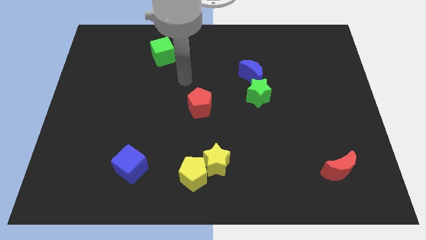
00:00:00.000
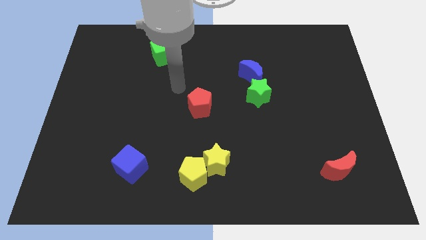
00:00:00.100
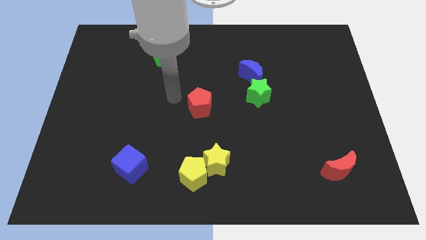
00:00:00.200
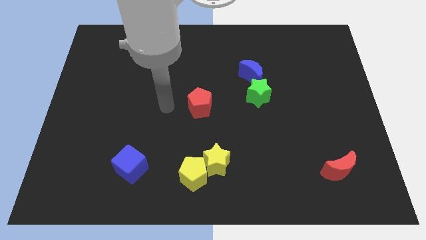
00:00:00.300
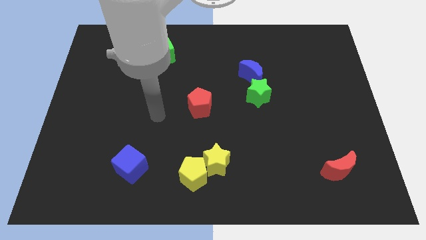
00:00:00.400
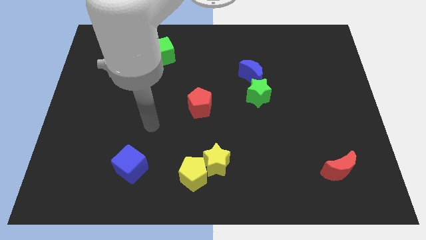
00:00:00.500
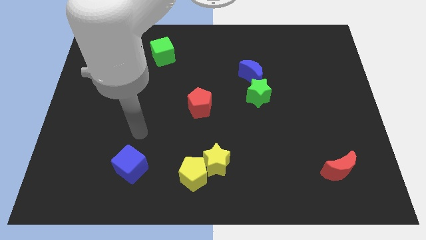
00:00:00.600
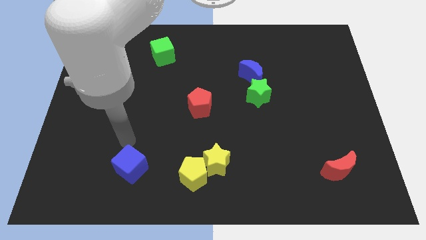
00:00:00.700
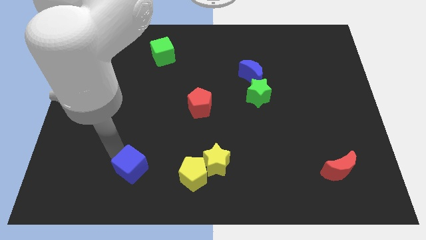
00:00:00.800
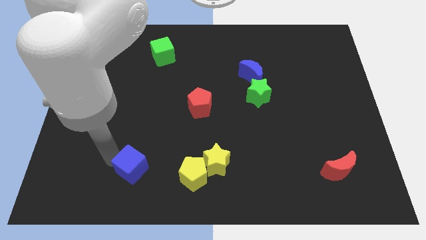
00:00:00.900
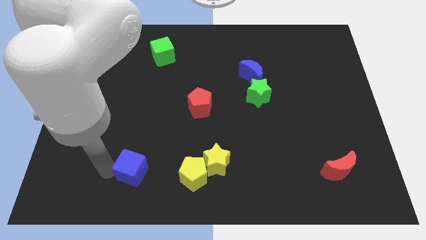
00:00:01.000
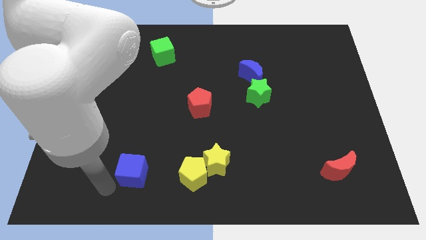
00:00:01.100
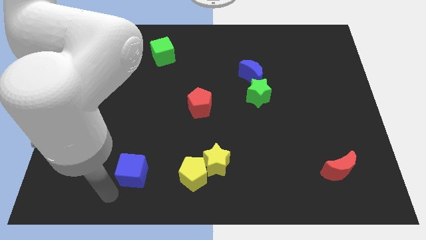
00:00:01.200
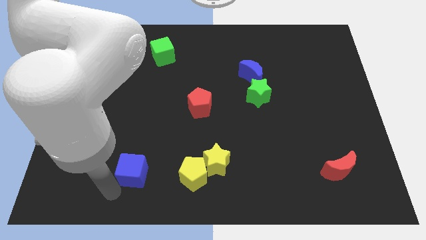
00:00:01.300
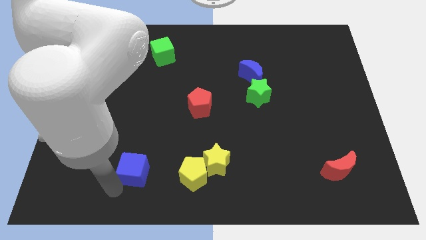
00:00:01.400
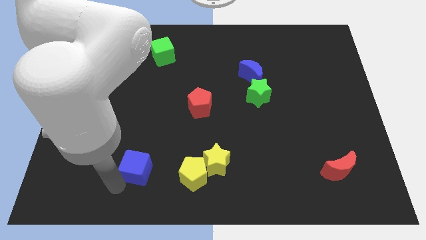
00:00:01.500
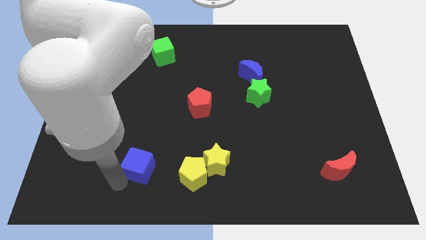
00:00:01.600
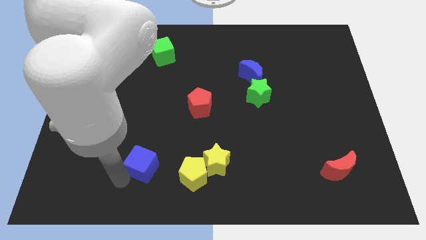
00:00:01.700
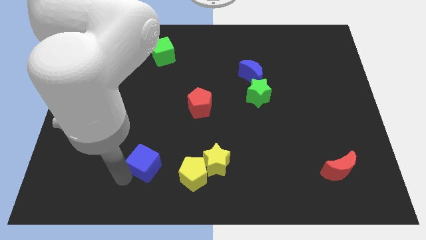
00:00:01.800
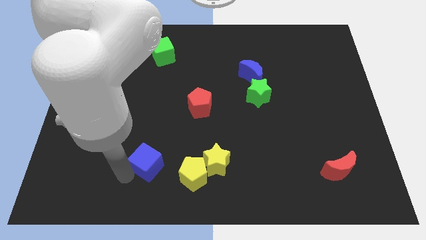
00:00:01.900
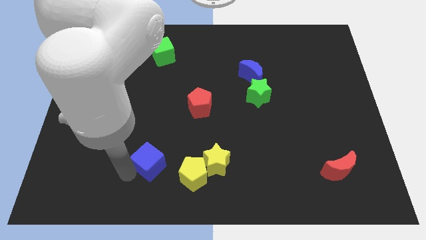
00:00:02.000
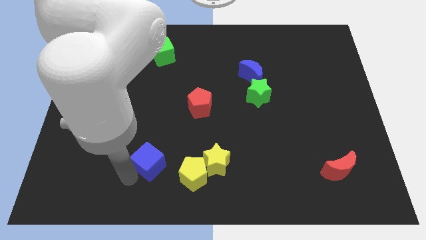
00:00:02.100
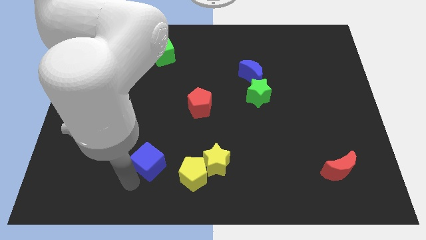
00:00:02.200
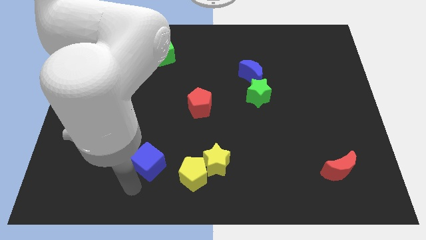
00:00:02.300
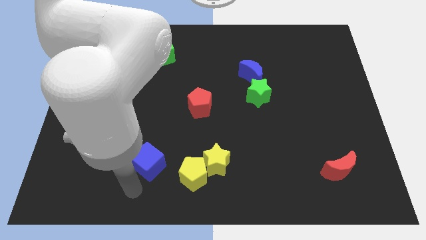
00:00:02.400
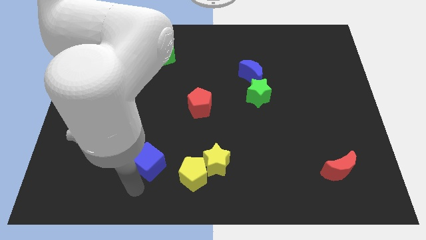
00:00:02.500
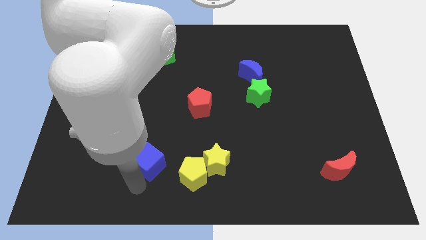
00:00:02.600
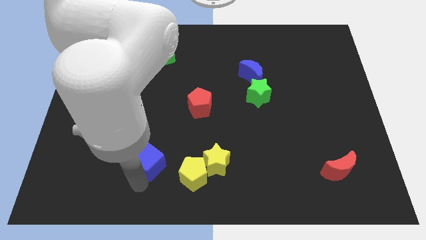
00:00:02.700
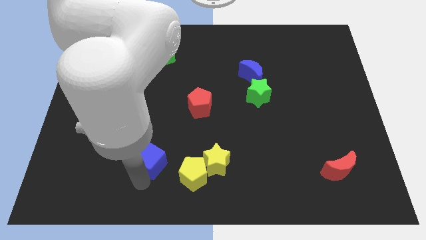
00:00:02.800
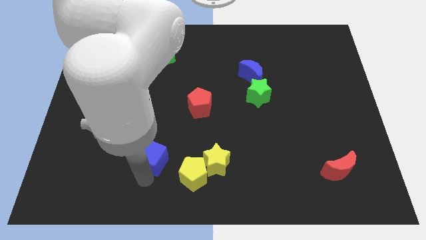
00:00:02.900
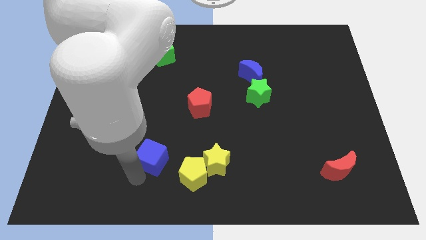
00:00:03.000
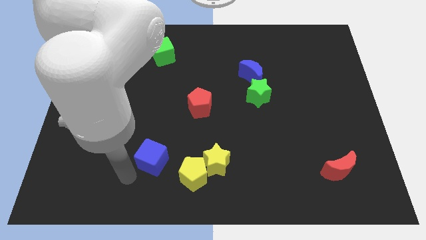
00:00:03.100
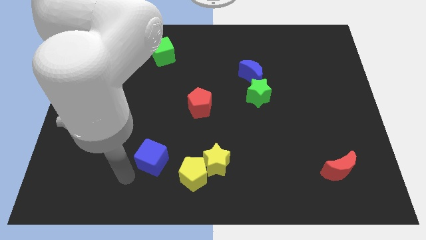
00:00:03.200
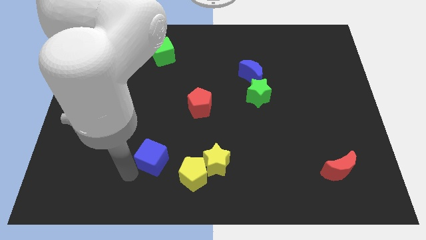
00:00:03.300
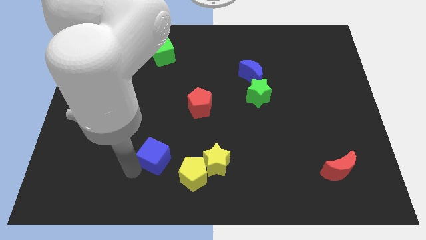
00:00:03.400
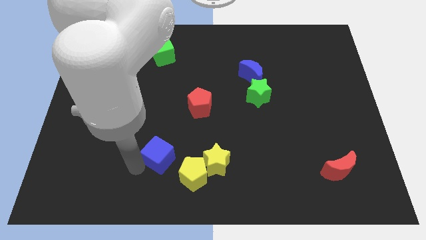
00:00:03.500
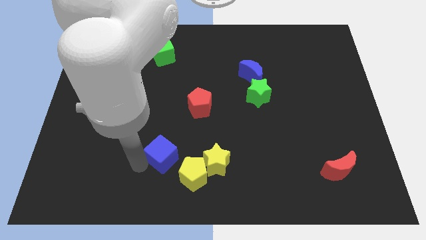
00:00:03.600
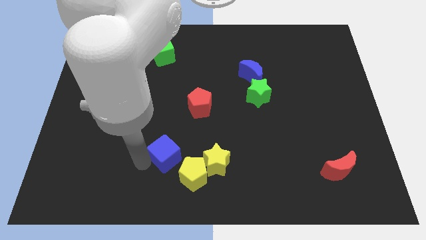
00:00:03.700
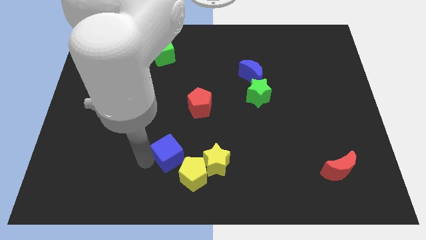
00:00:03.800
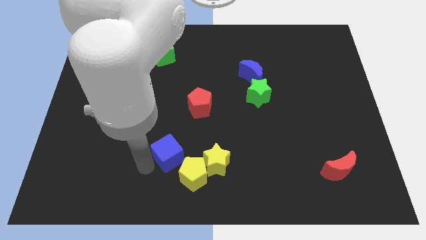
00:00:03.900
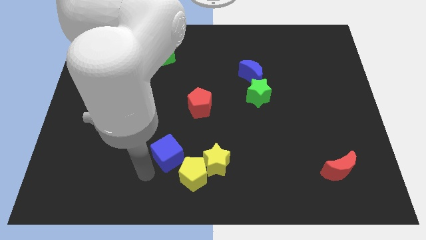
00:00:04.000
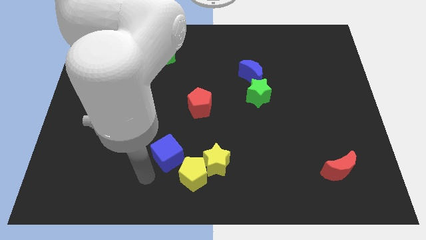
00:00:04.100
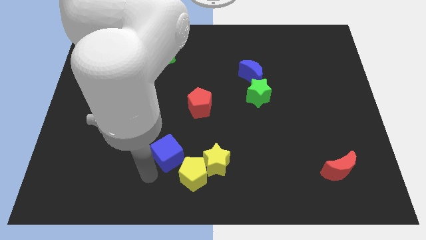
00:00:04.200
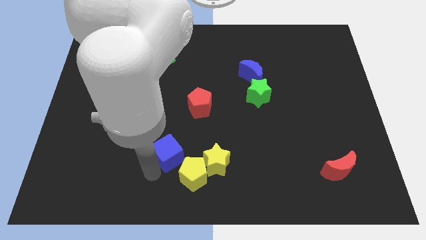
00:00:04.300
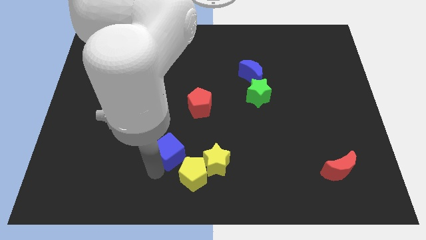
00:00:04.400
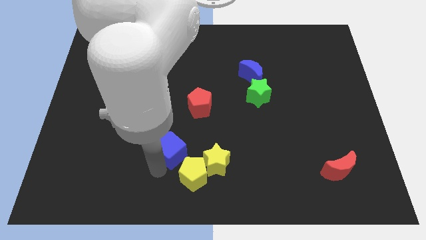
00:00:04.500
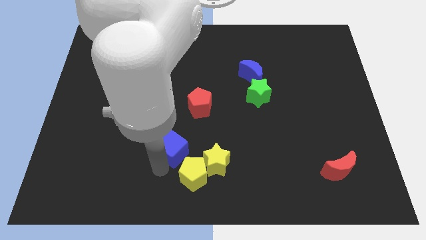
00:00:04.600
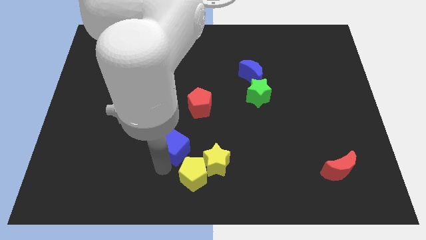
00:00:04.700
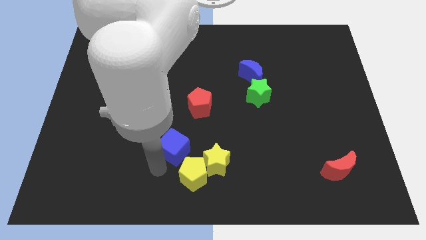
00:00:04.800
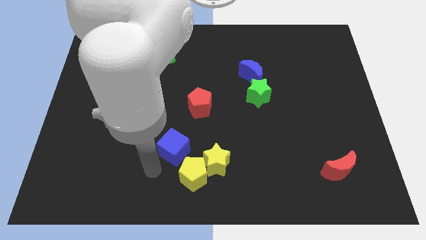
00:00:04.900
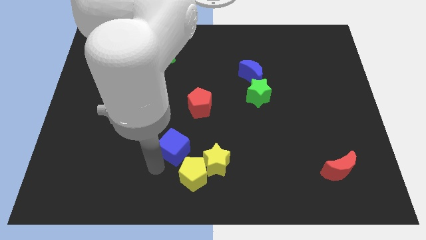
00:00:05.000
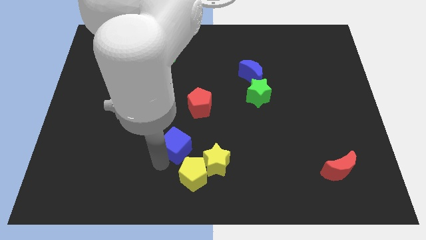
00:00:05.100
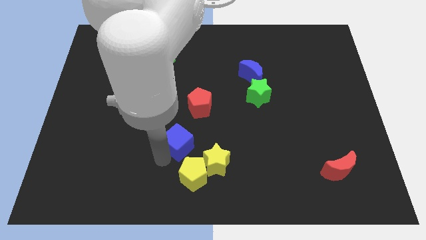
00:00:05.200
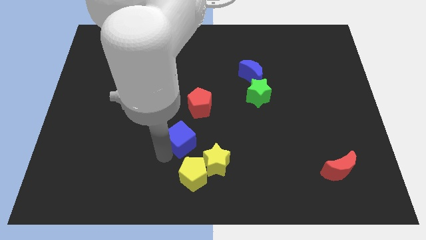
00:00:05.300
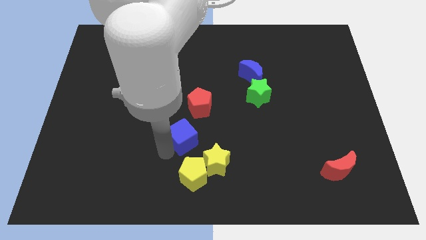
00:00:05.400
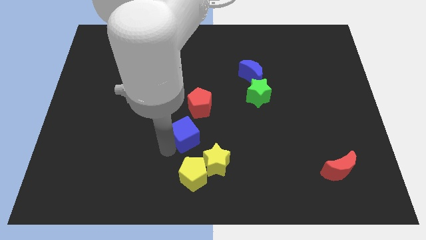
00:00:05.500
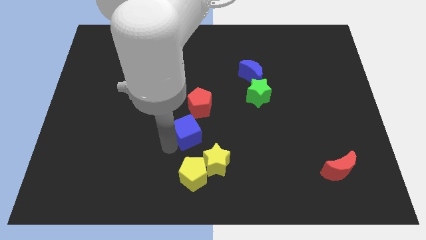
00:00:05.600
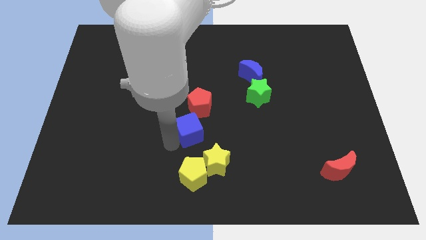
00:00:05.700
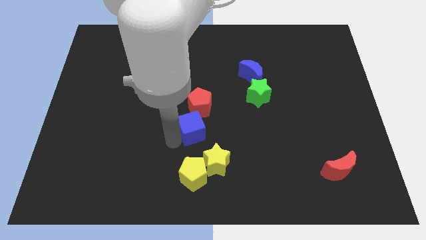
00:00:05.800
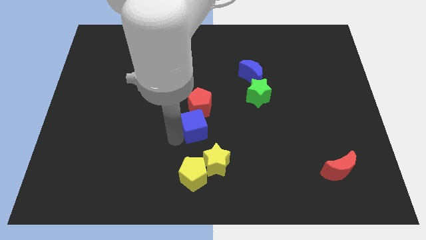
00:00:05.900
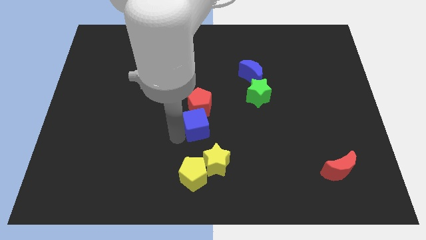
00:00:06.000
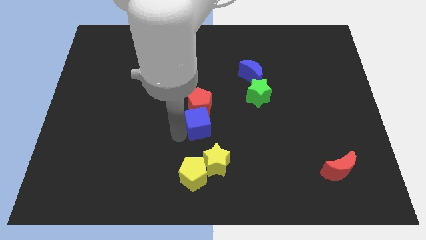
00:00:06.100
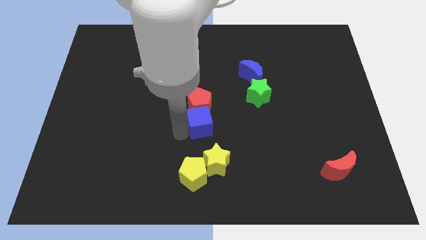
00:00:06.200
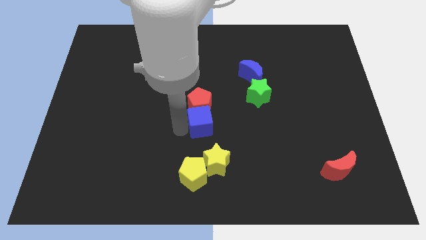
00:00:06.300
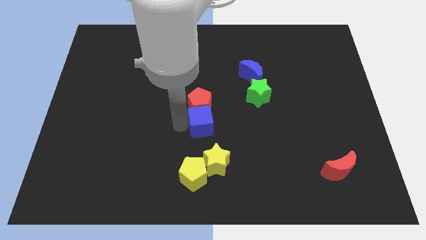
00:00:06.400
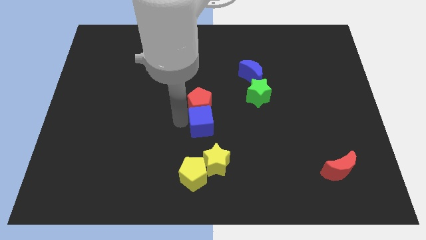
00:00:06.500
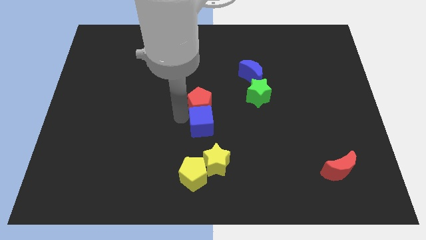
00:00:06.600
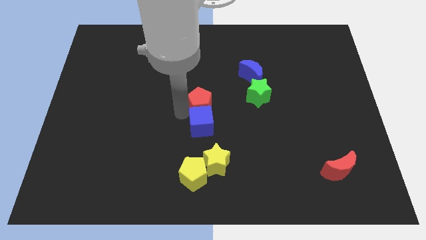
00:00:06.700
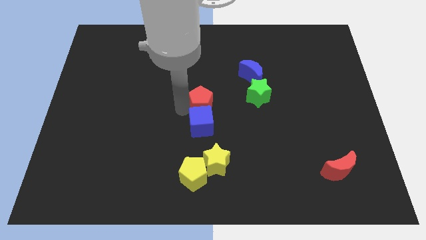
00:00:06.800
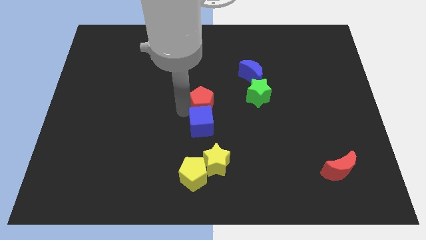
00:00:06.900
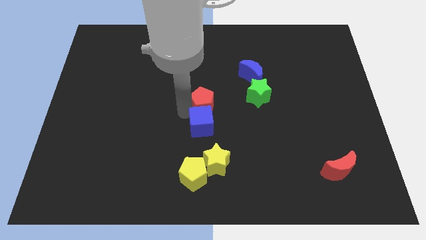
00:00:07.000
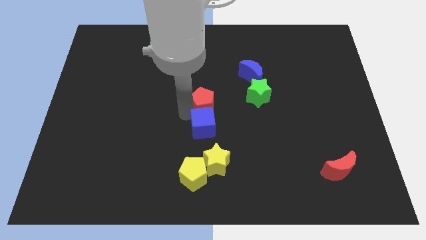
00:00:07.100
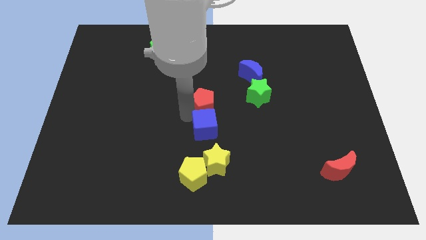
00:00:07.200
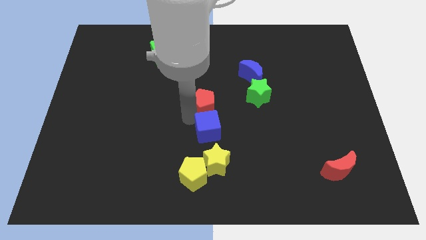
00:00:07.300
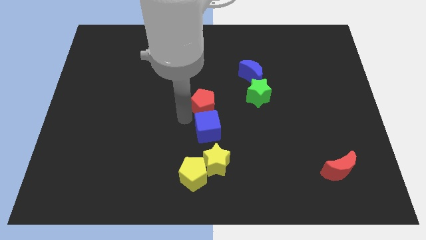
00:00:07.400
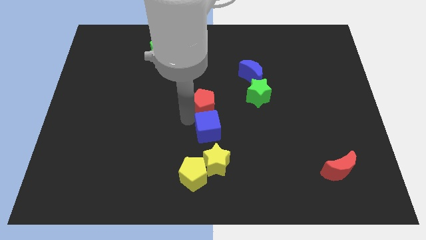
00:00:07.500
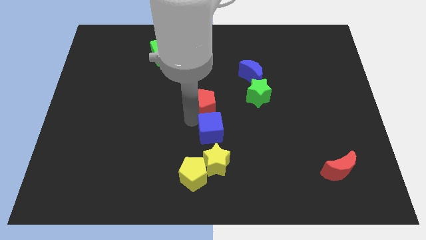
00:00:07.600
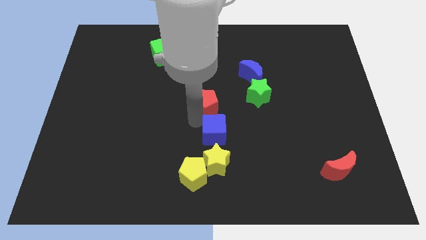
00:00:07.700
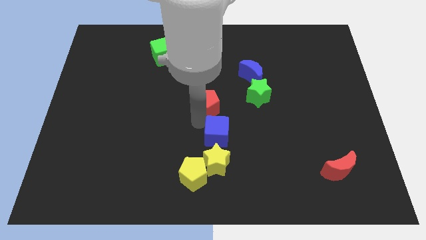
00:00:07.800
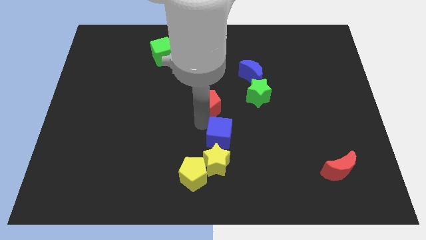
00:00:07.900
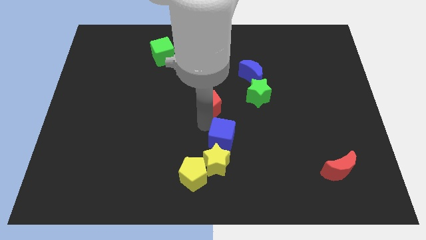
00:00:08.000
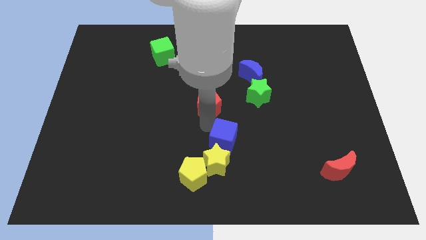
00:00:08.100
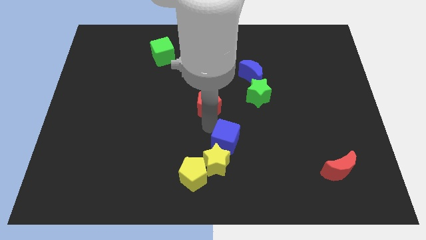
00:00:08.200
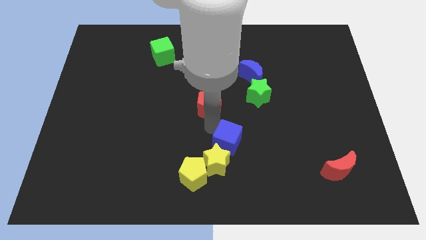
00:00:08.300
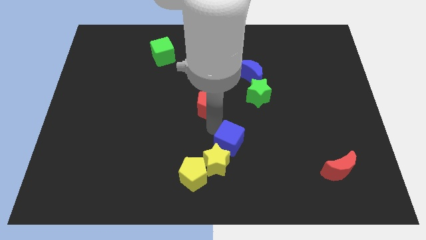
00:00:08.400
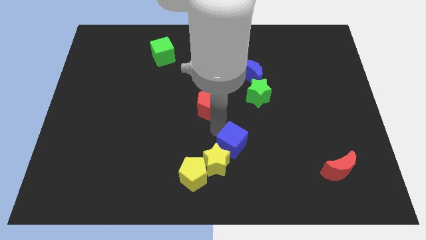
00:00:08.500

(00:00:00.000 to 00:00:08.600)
move the blue cube right
